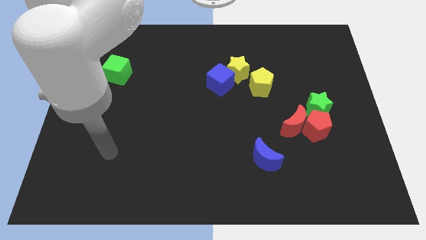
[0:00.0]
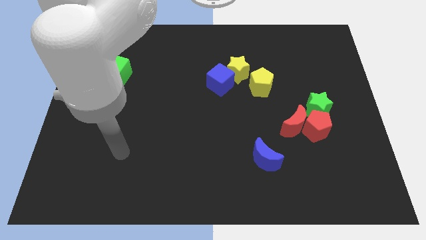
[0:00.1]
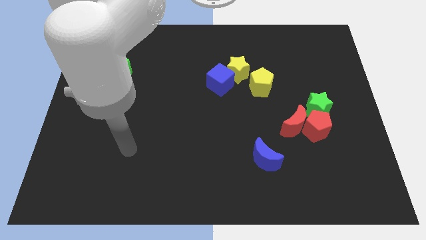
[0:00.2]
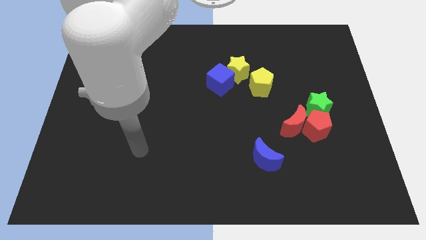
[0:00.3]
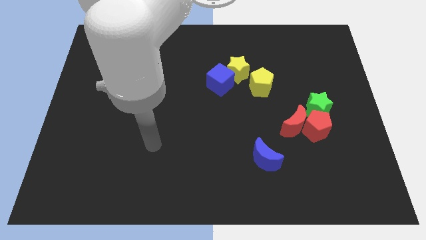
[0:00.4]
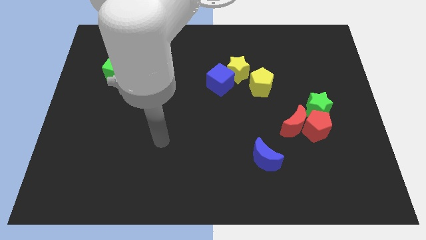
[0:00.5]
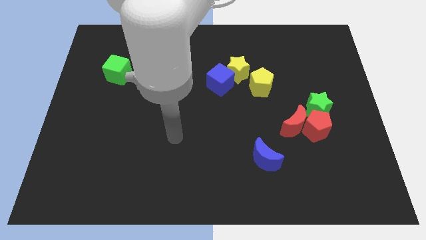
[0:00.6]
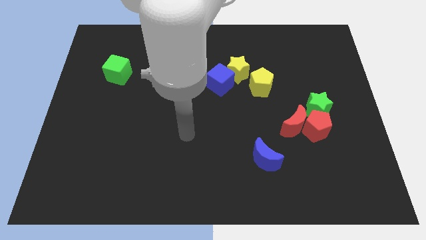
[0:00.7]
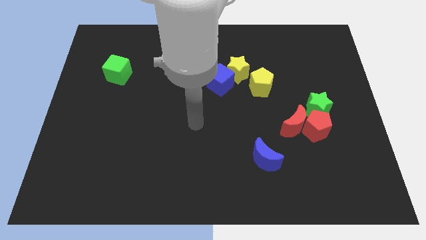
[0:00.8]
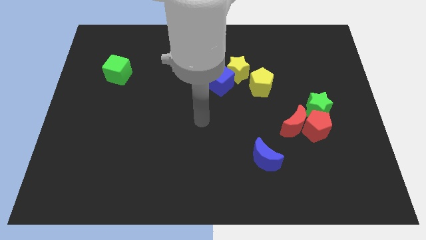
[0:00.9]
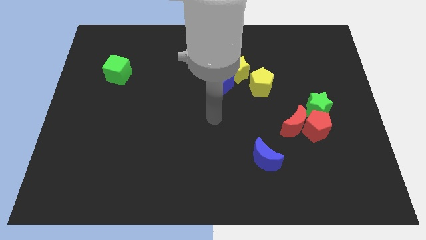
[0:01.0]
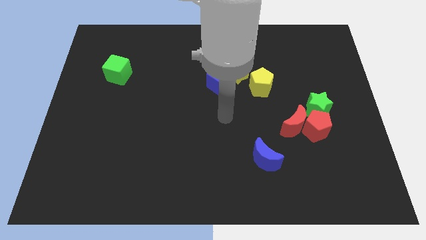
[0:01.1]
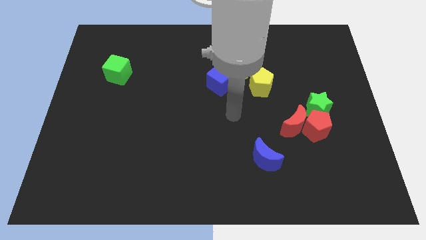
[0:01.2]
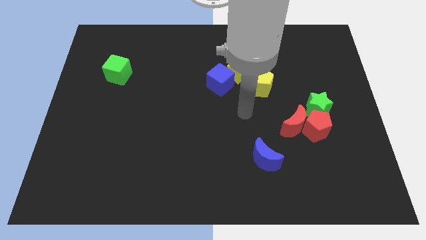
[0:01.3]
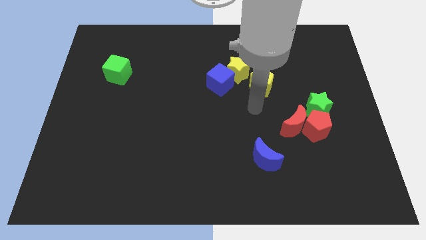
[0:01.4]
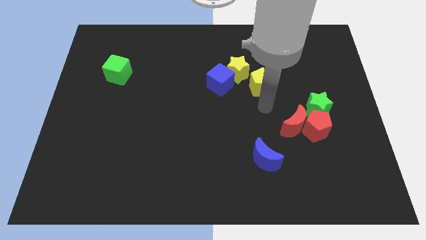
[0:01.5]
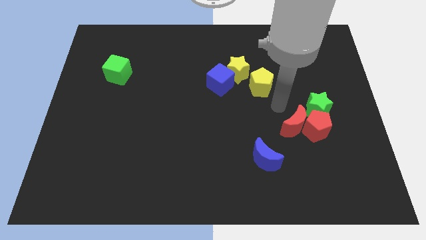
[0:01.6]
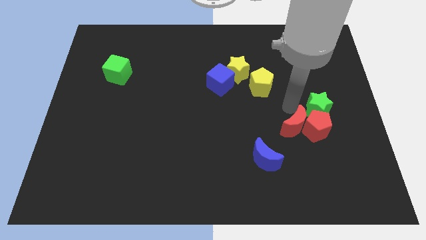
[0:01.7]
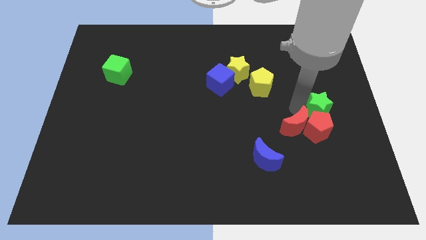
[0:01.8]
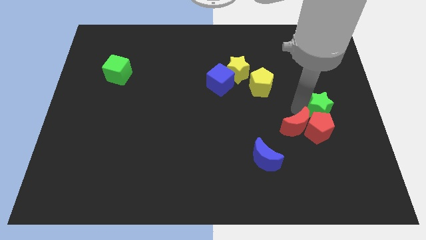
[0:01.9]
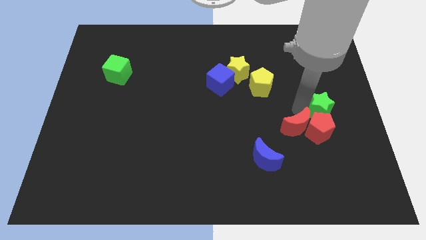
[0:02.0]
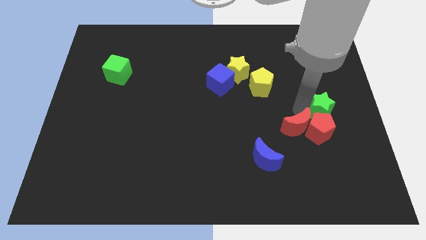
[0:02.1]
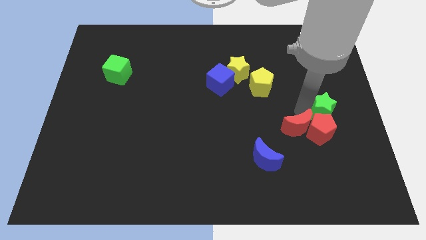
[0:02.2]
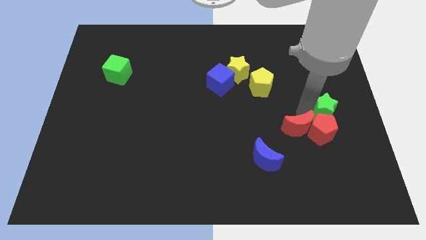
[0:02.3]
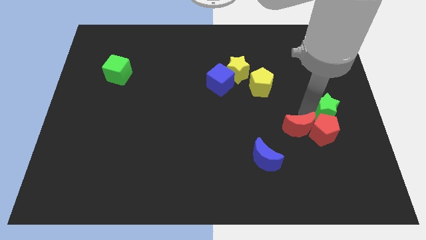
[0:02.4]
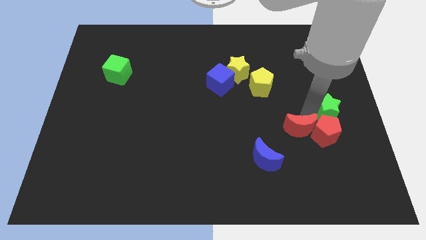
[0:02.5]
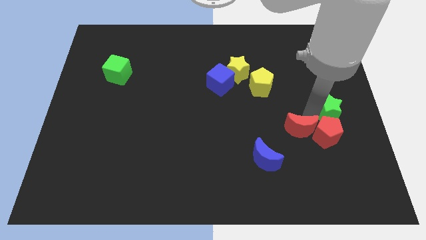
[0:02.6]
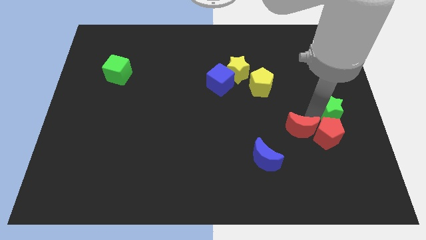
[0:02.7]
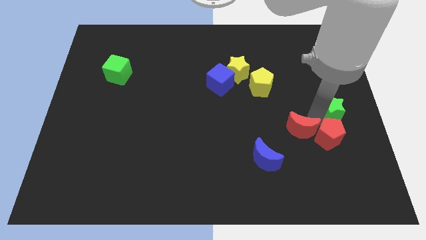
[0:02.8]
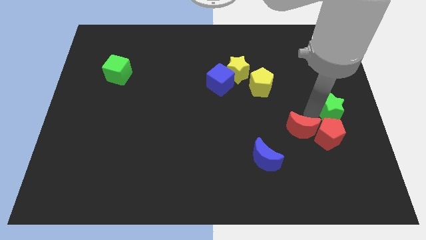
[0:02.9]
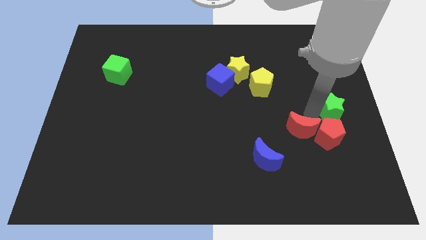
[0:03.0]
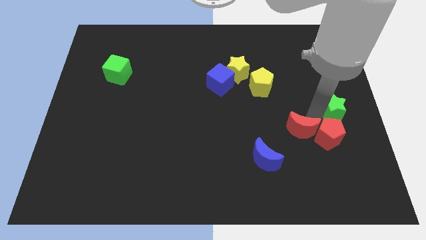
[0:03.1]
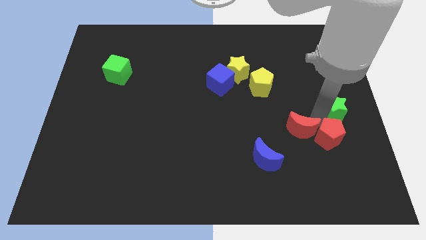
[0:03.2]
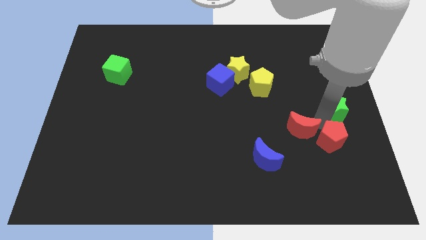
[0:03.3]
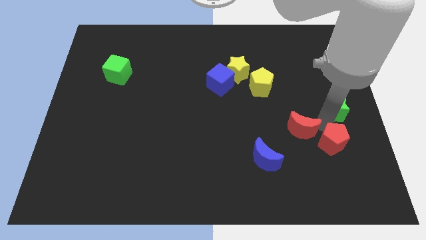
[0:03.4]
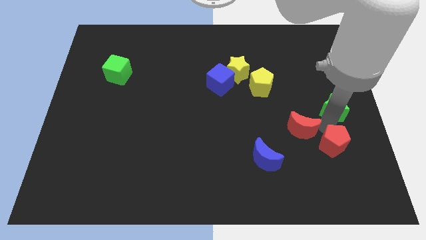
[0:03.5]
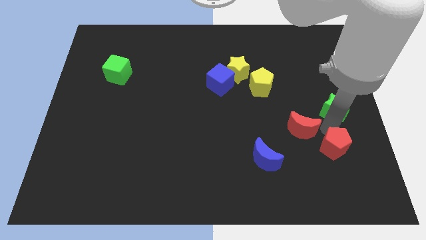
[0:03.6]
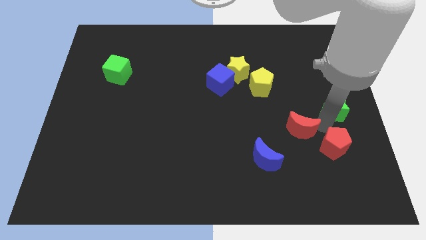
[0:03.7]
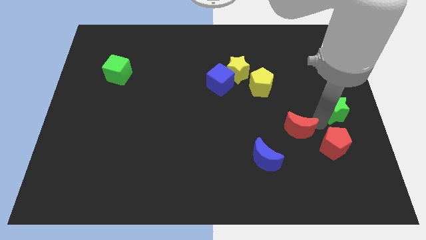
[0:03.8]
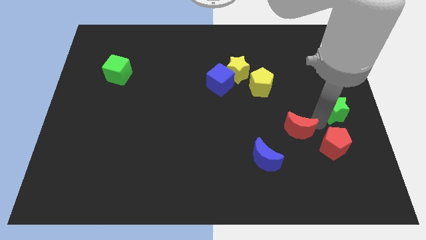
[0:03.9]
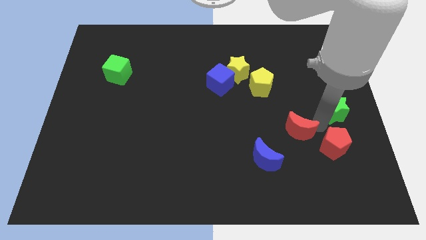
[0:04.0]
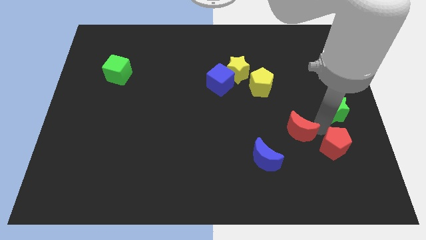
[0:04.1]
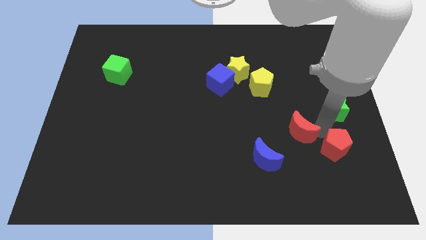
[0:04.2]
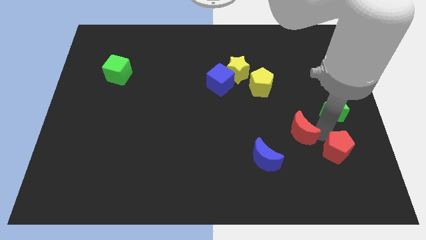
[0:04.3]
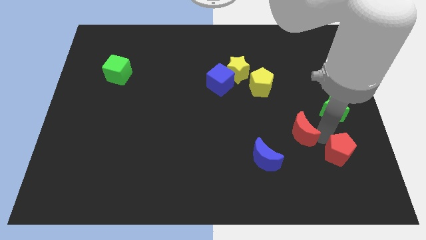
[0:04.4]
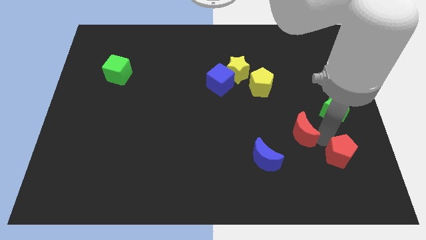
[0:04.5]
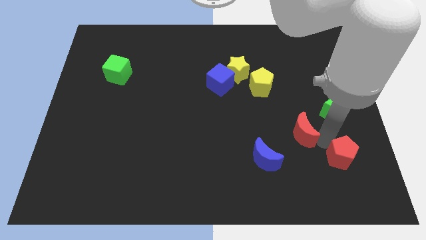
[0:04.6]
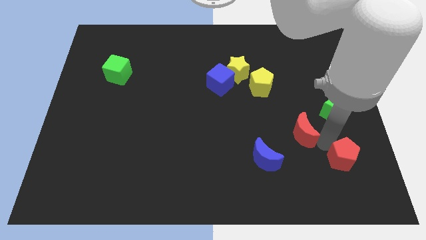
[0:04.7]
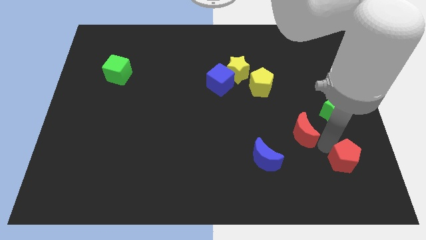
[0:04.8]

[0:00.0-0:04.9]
pull the red pentagon apart from the red moon and green star

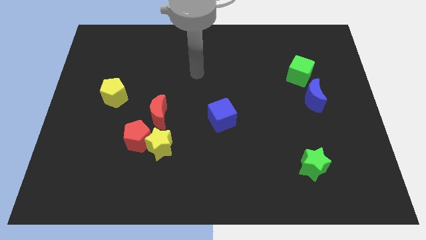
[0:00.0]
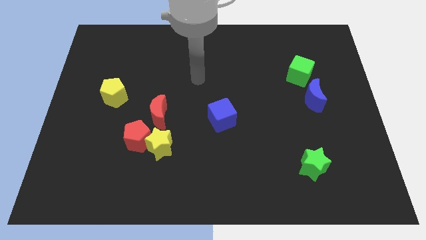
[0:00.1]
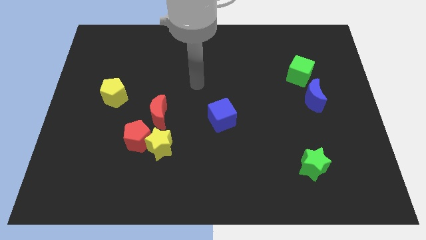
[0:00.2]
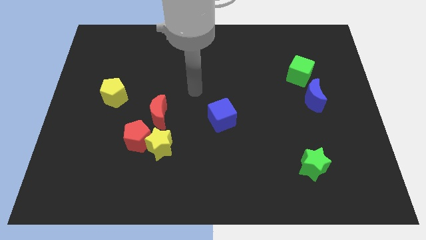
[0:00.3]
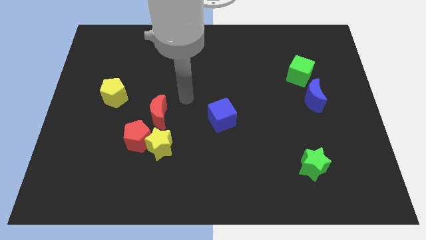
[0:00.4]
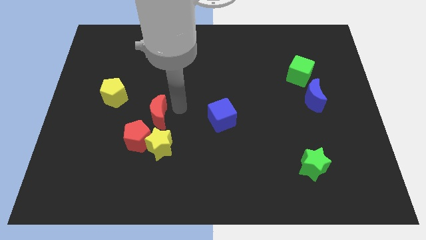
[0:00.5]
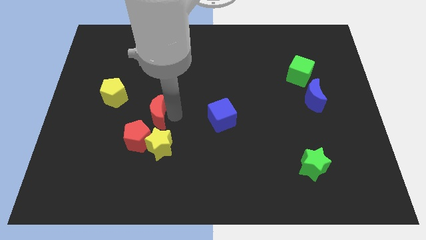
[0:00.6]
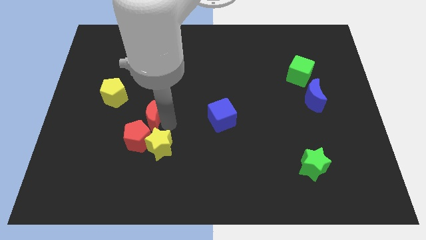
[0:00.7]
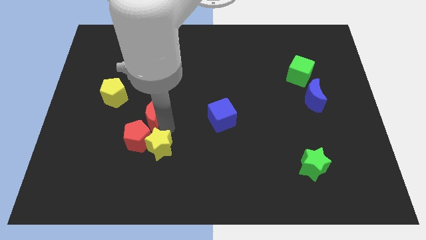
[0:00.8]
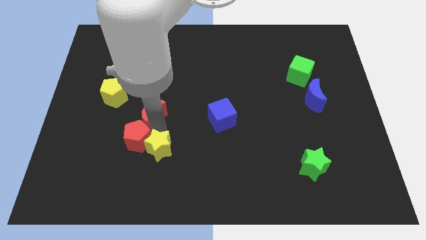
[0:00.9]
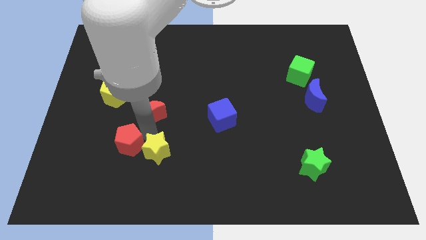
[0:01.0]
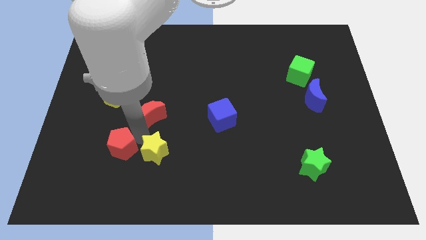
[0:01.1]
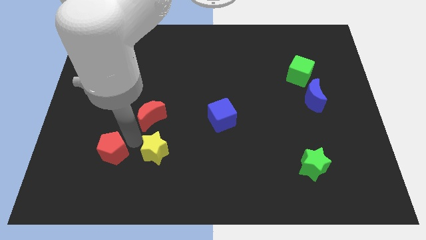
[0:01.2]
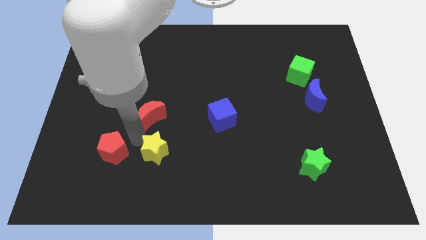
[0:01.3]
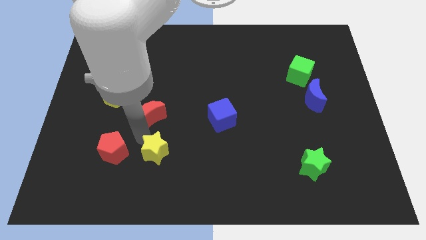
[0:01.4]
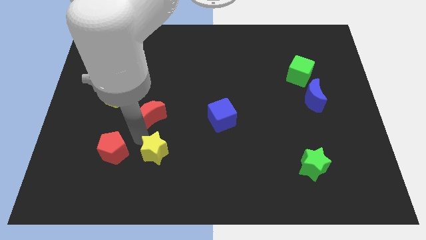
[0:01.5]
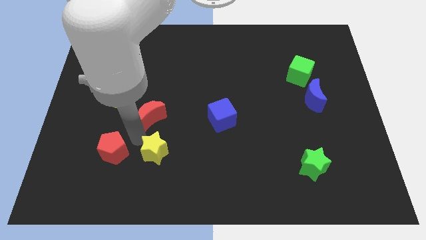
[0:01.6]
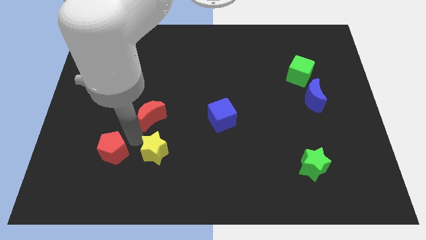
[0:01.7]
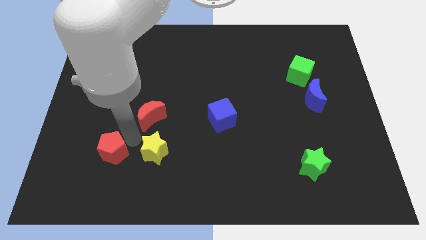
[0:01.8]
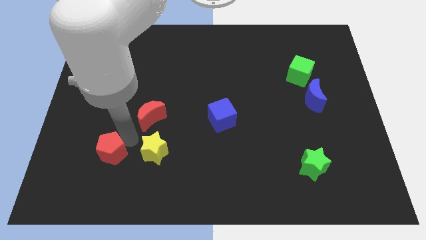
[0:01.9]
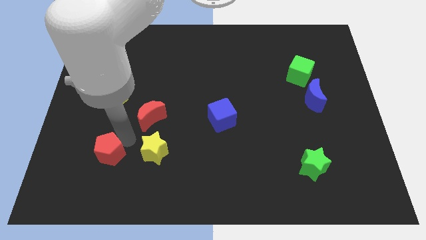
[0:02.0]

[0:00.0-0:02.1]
move the red pentagon away from the yellow star and red moon

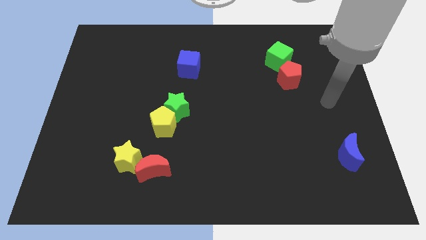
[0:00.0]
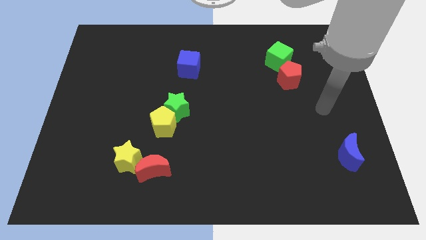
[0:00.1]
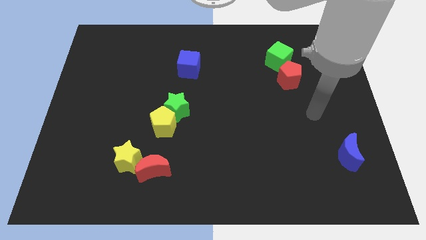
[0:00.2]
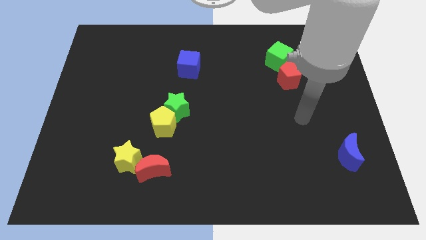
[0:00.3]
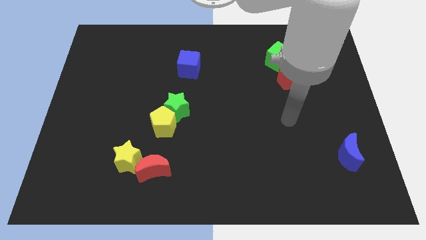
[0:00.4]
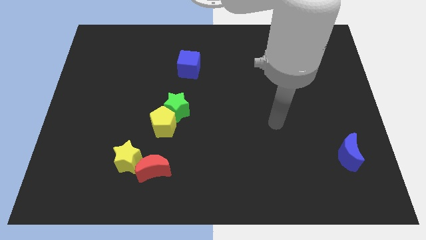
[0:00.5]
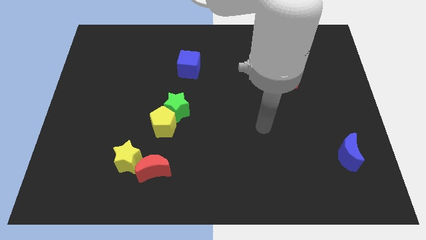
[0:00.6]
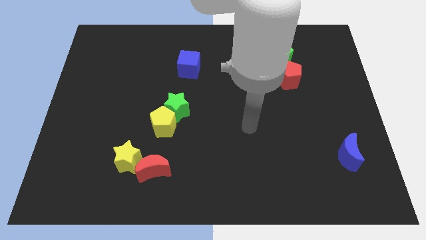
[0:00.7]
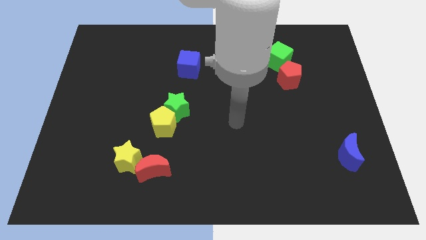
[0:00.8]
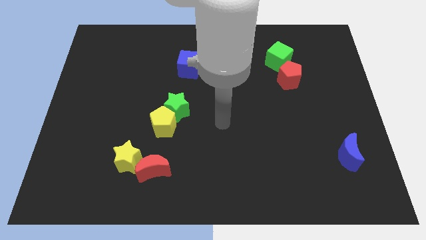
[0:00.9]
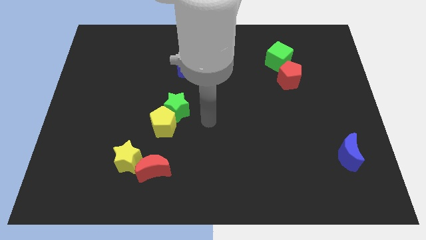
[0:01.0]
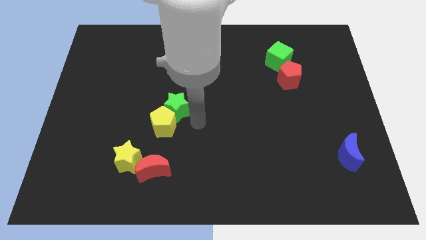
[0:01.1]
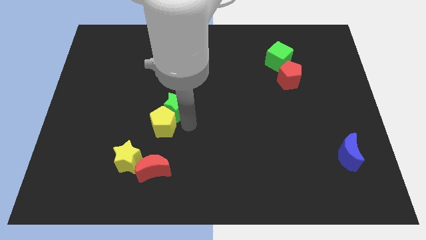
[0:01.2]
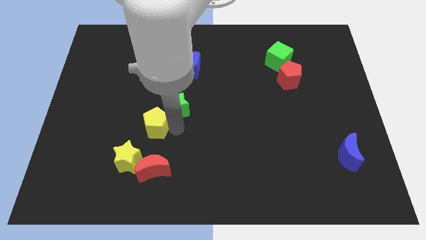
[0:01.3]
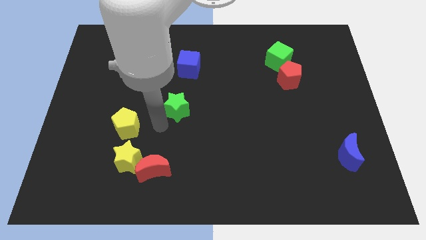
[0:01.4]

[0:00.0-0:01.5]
move the green star away from the yellow pentagon

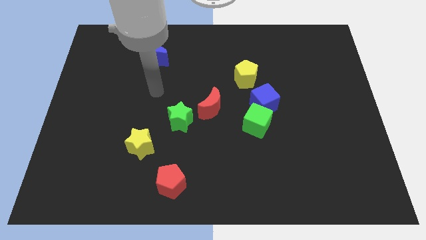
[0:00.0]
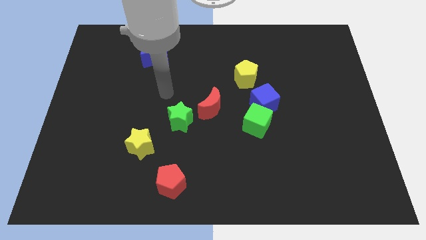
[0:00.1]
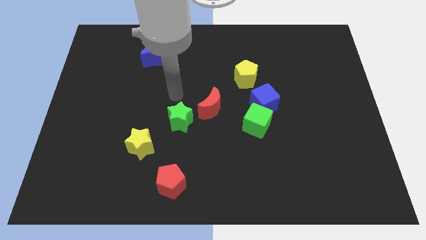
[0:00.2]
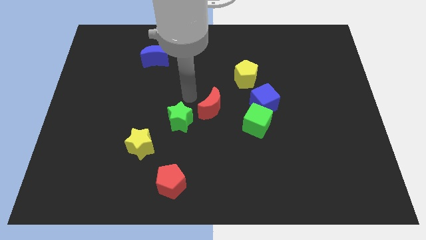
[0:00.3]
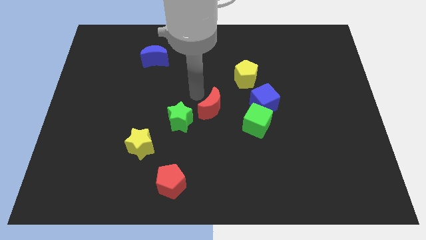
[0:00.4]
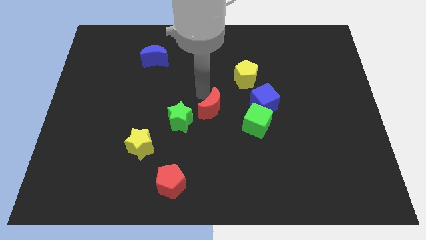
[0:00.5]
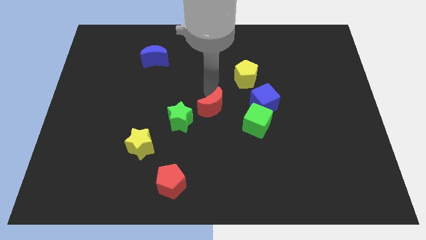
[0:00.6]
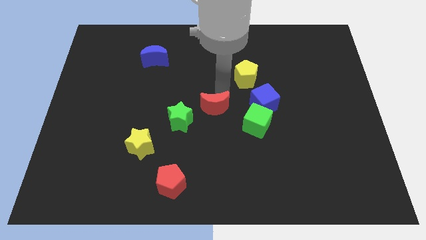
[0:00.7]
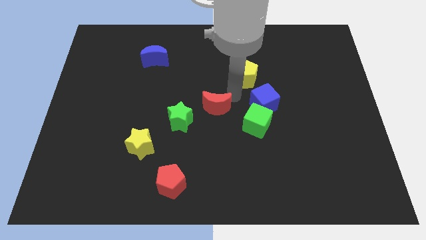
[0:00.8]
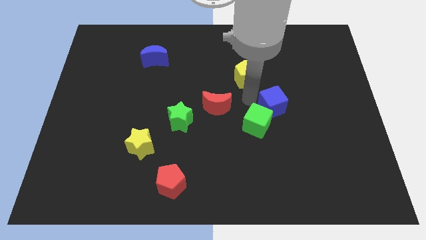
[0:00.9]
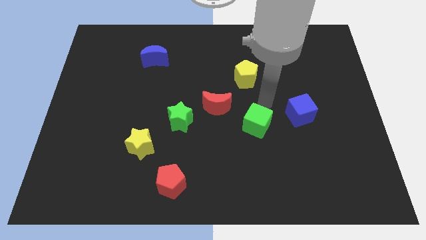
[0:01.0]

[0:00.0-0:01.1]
pull the green cube apart from the blue cube
